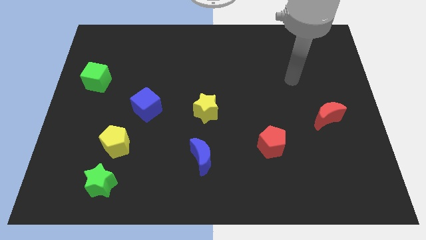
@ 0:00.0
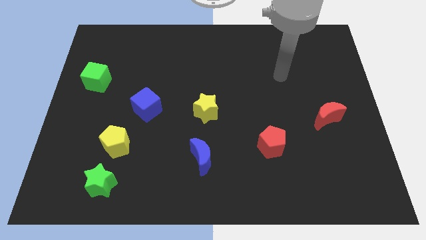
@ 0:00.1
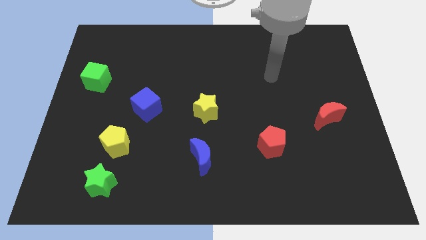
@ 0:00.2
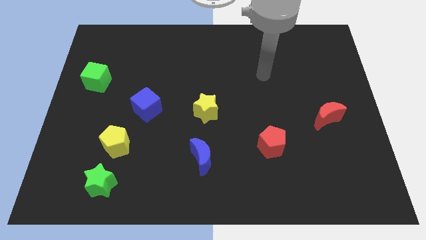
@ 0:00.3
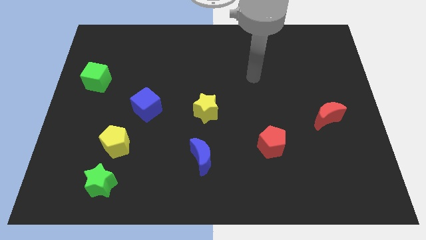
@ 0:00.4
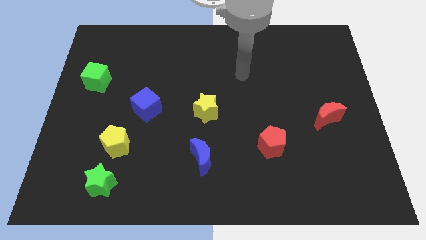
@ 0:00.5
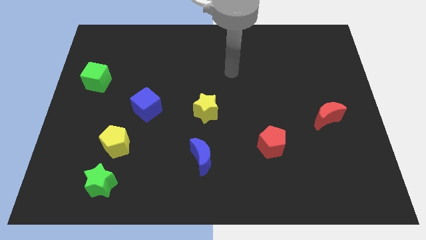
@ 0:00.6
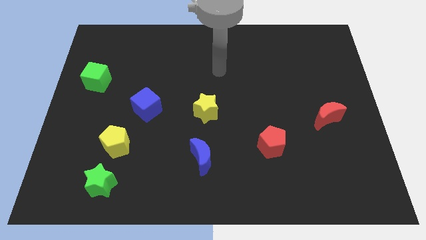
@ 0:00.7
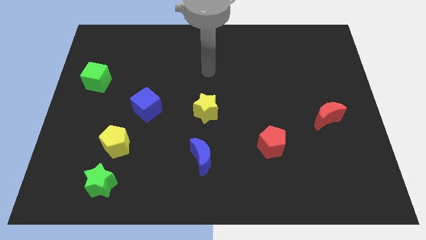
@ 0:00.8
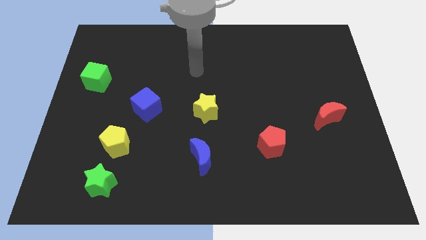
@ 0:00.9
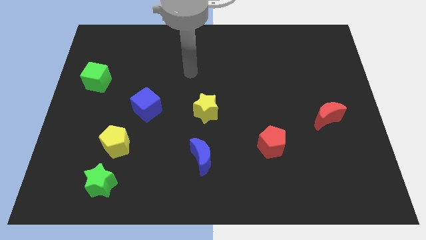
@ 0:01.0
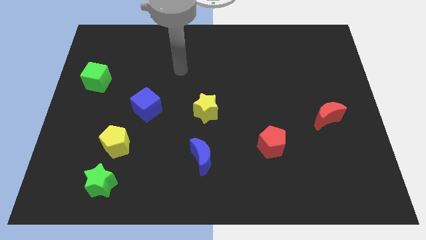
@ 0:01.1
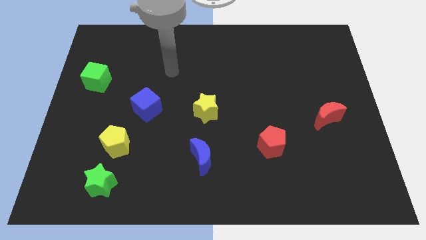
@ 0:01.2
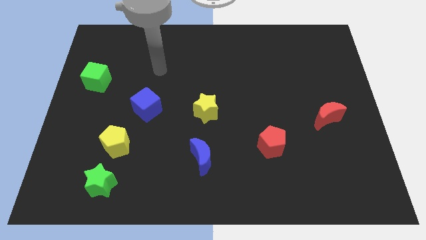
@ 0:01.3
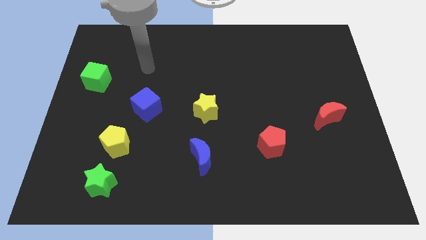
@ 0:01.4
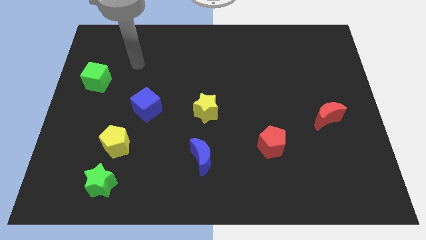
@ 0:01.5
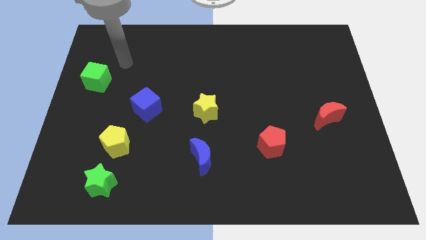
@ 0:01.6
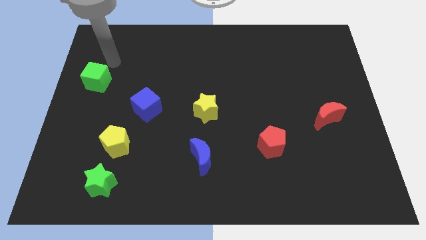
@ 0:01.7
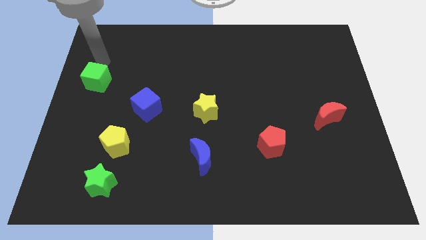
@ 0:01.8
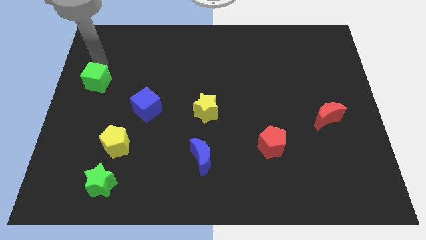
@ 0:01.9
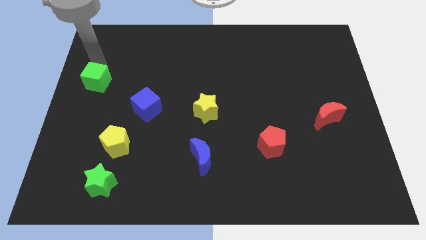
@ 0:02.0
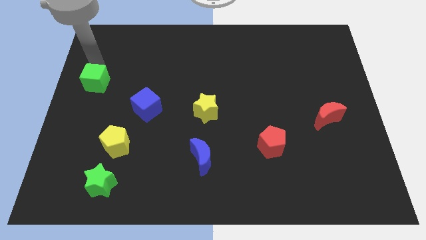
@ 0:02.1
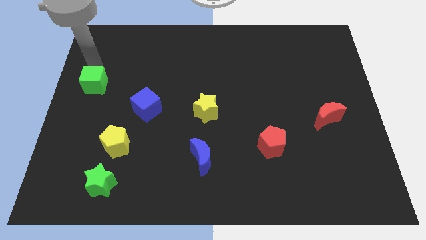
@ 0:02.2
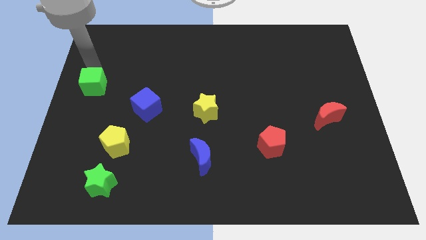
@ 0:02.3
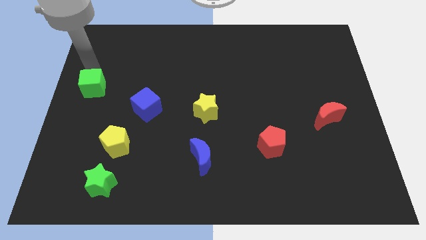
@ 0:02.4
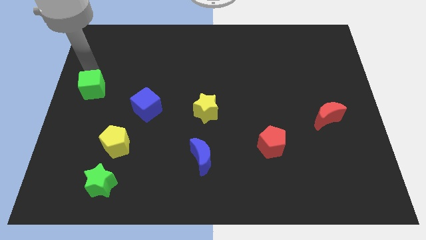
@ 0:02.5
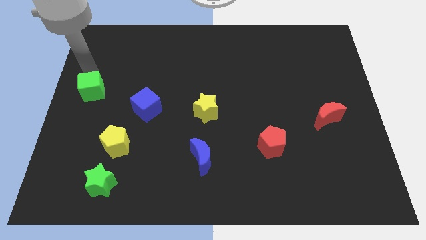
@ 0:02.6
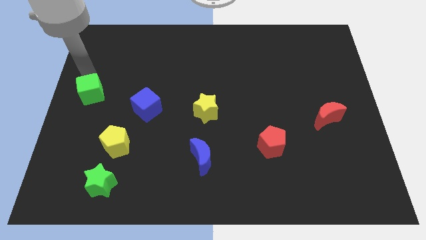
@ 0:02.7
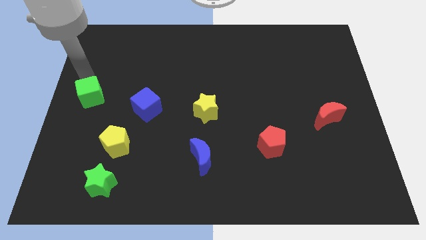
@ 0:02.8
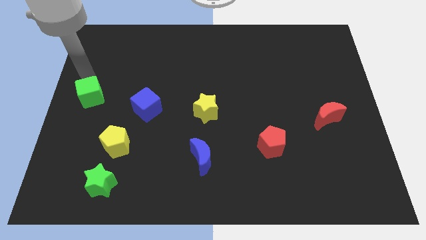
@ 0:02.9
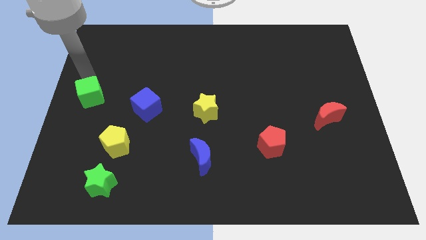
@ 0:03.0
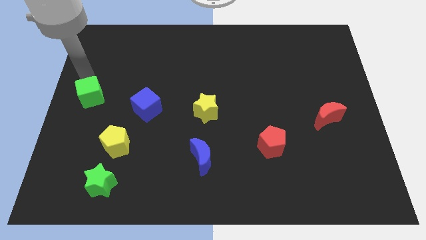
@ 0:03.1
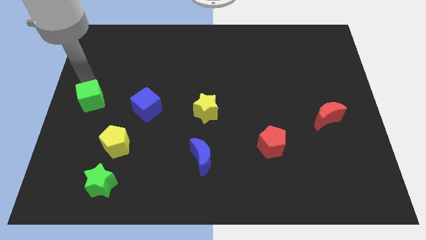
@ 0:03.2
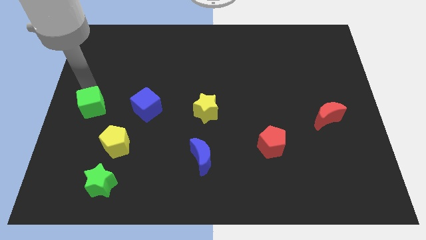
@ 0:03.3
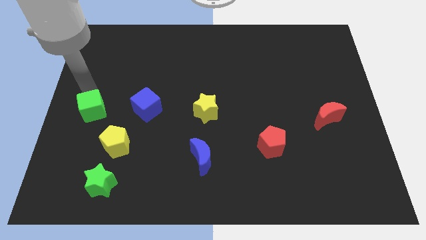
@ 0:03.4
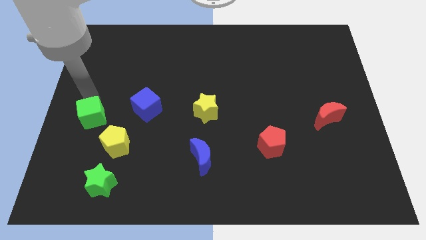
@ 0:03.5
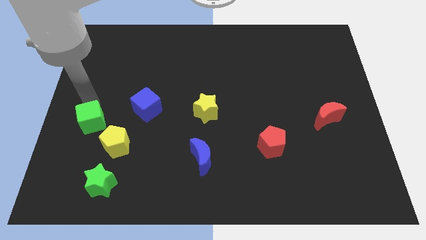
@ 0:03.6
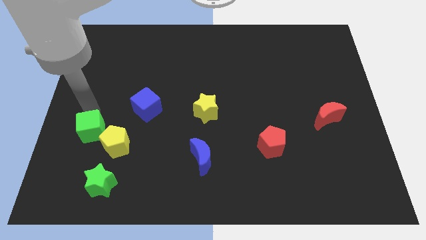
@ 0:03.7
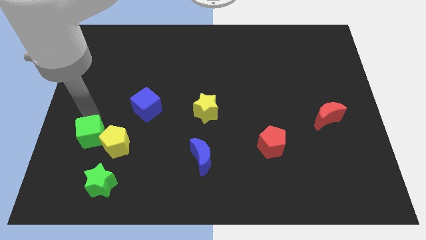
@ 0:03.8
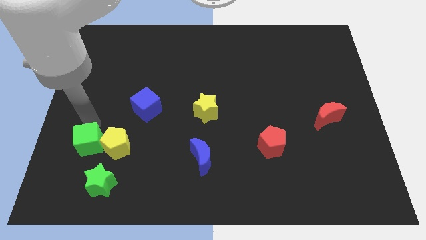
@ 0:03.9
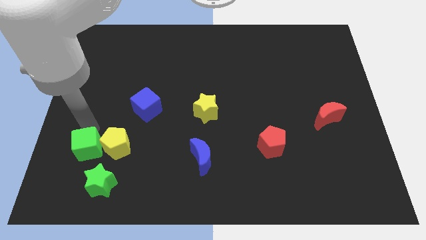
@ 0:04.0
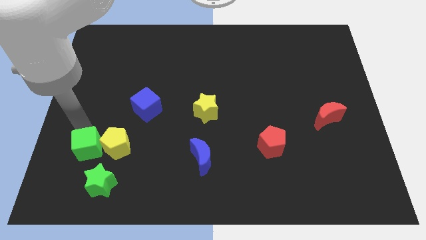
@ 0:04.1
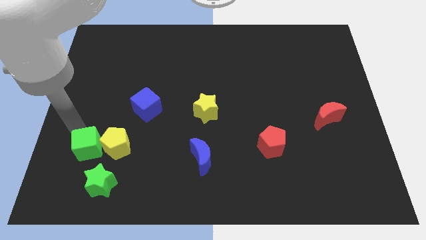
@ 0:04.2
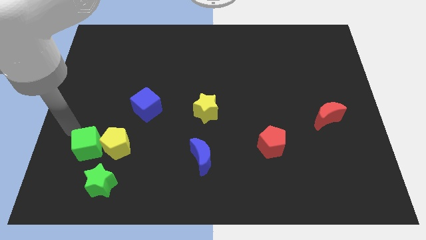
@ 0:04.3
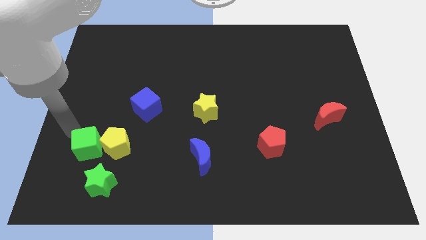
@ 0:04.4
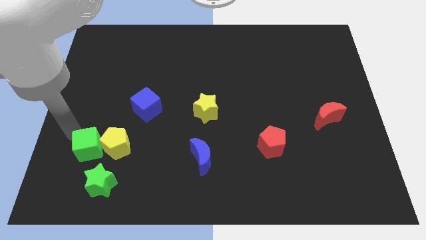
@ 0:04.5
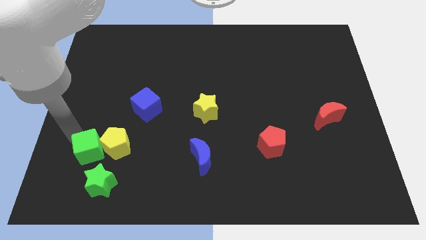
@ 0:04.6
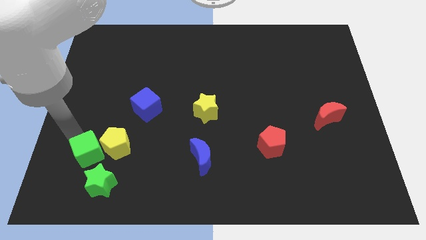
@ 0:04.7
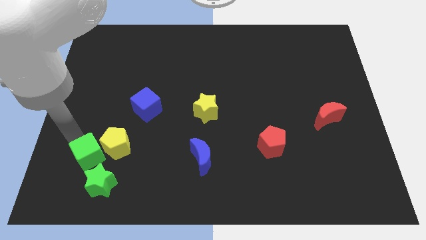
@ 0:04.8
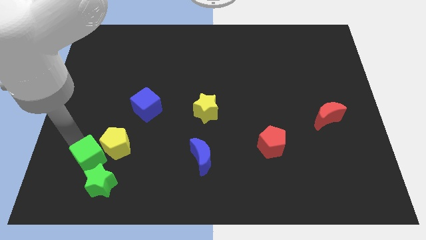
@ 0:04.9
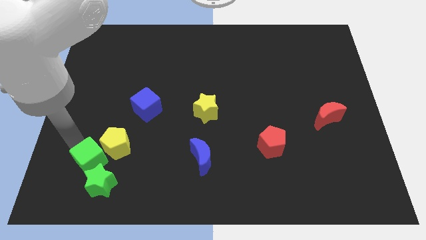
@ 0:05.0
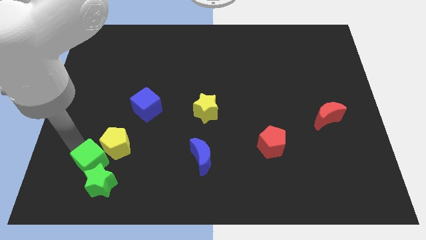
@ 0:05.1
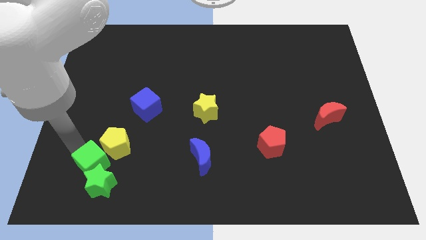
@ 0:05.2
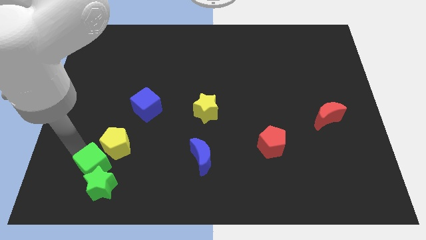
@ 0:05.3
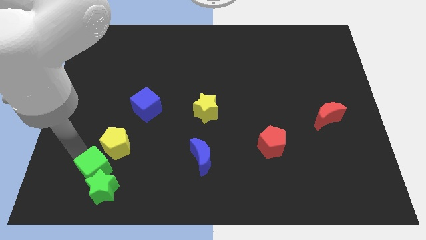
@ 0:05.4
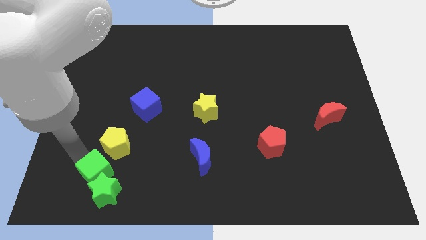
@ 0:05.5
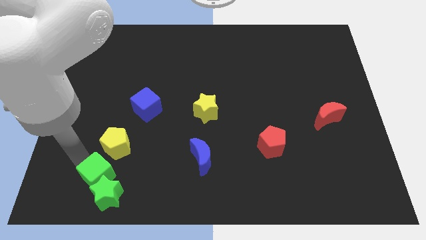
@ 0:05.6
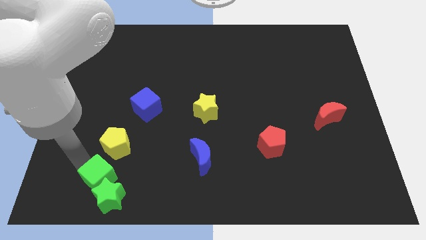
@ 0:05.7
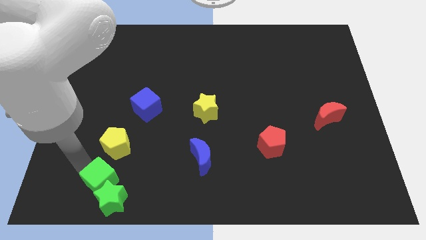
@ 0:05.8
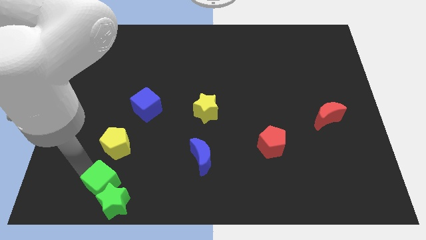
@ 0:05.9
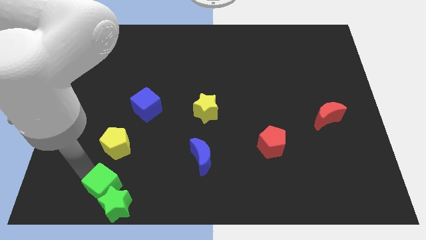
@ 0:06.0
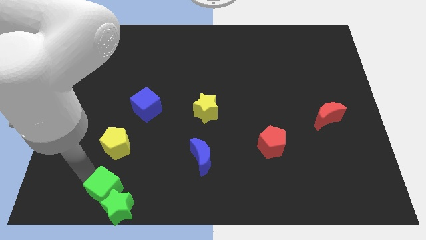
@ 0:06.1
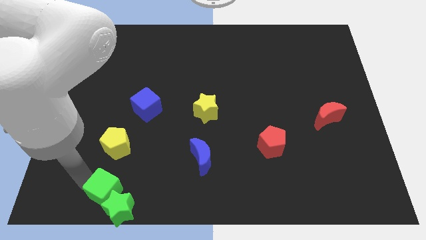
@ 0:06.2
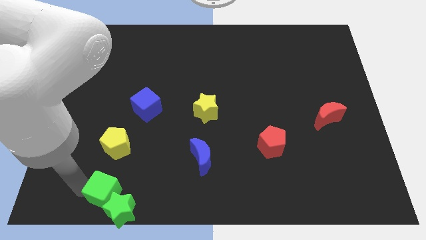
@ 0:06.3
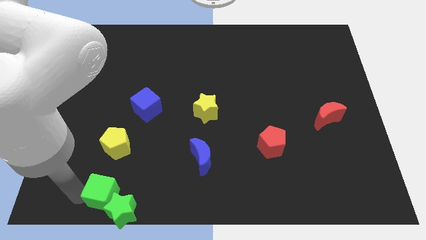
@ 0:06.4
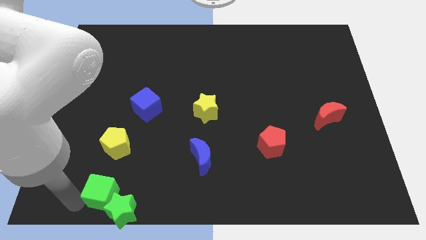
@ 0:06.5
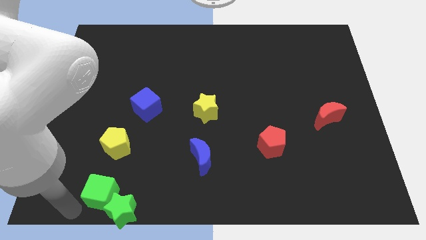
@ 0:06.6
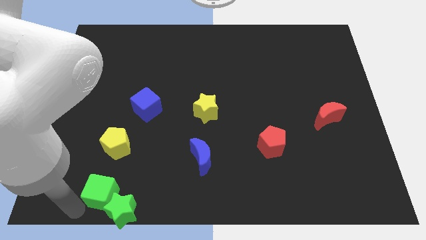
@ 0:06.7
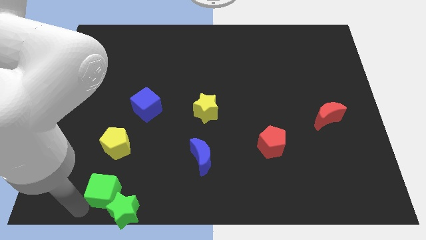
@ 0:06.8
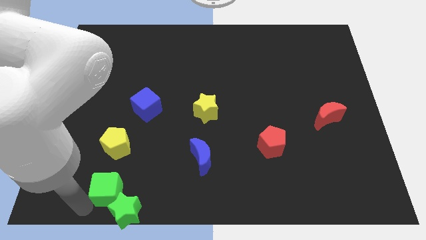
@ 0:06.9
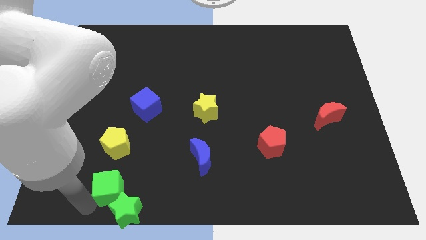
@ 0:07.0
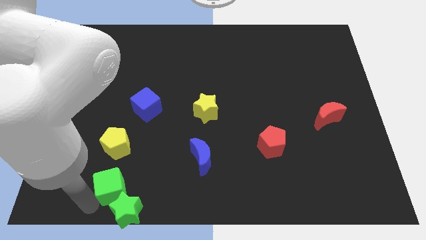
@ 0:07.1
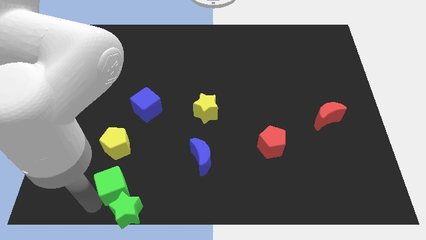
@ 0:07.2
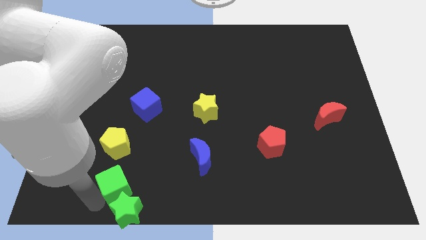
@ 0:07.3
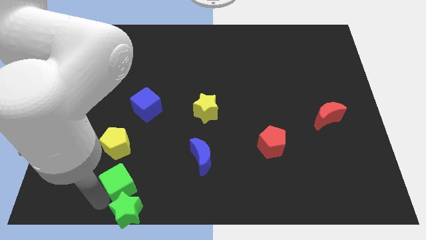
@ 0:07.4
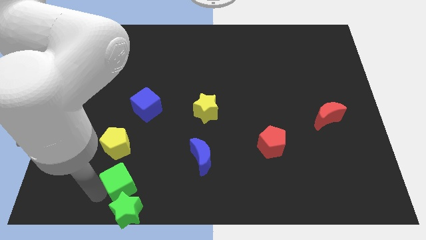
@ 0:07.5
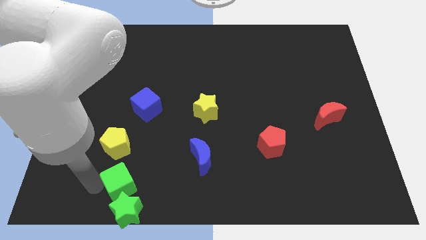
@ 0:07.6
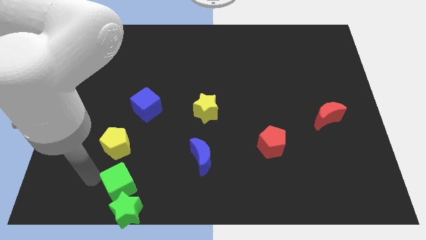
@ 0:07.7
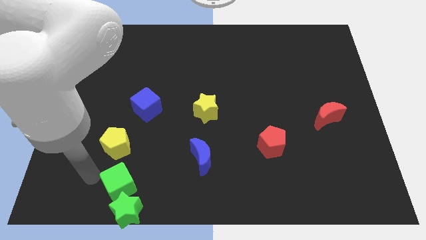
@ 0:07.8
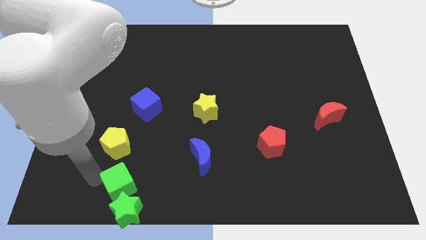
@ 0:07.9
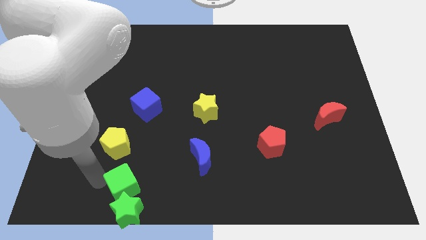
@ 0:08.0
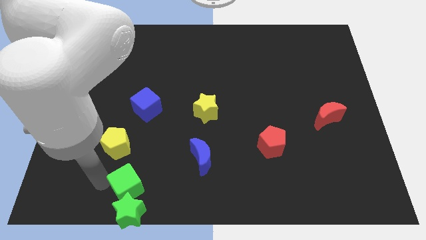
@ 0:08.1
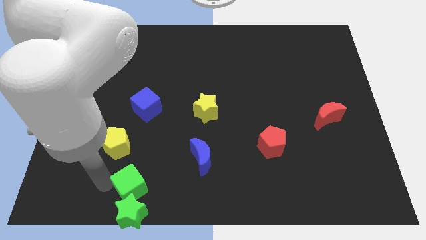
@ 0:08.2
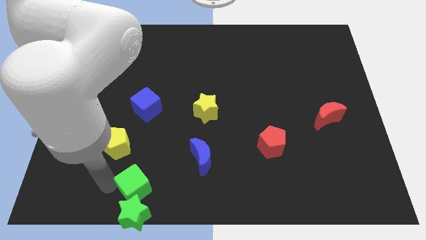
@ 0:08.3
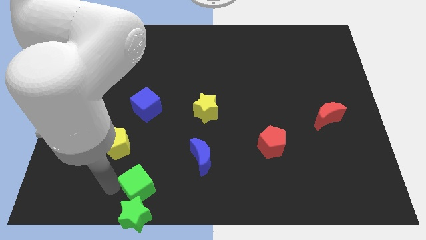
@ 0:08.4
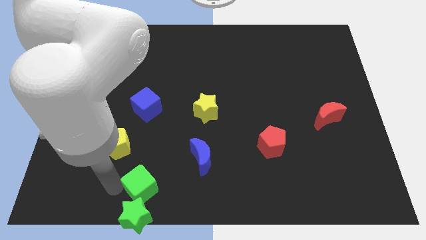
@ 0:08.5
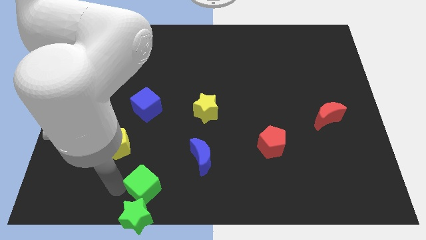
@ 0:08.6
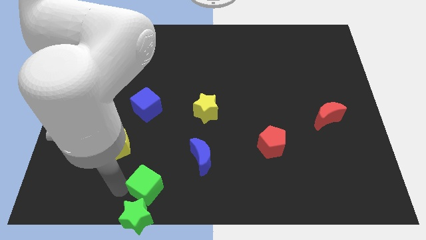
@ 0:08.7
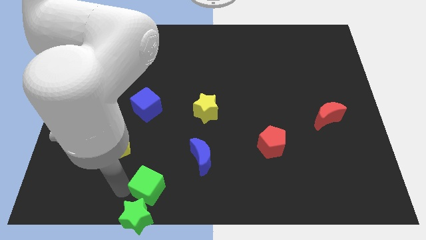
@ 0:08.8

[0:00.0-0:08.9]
put the green cube to the bottom side
